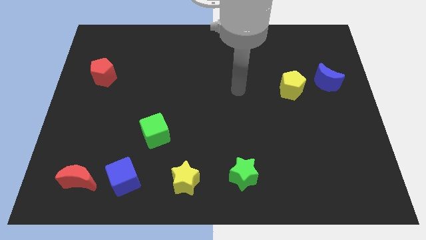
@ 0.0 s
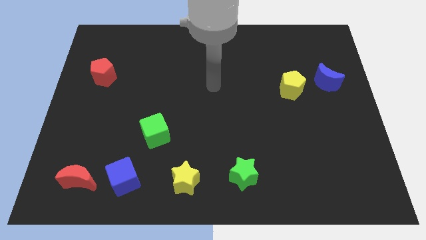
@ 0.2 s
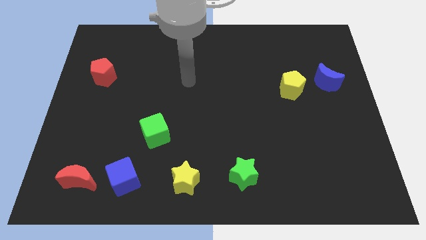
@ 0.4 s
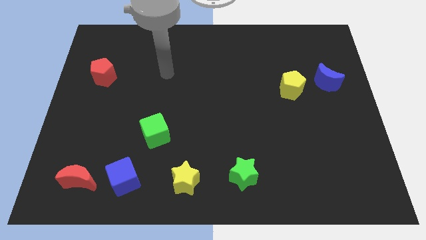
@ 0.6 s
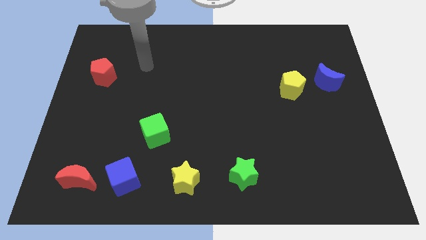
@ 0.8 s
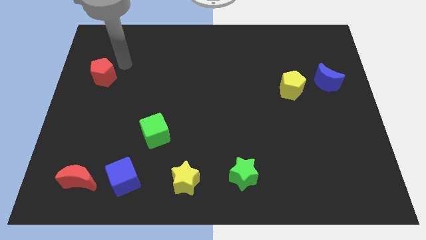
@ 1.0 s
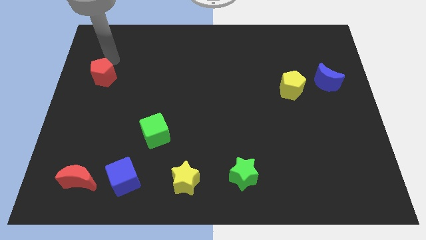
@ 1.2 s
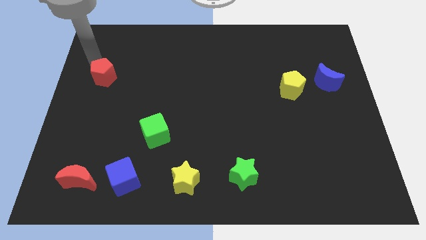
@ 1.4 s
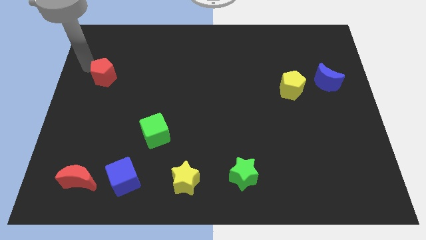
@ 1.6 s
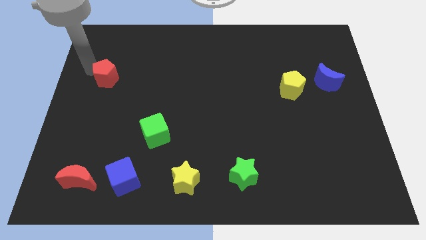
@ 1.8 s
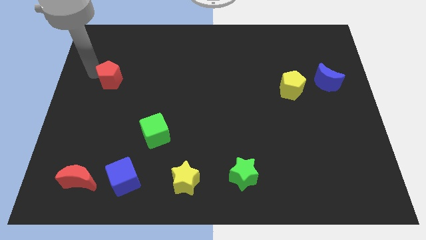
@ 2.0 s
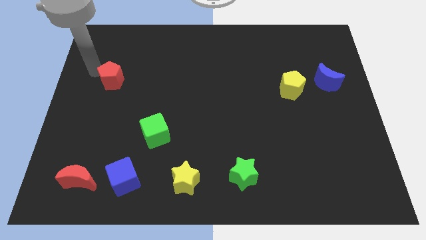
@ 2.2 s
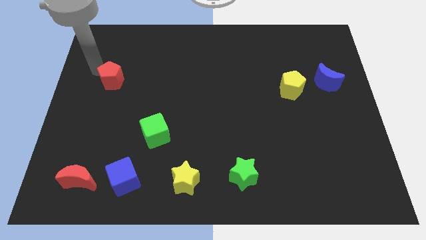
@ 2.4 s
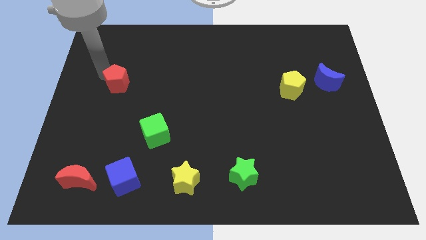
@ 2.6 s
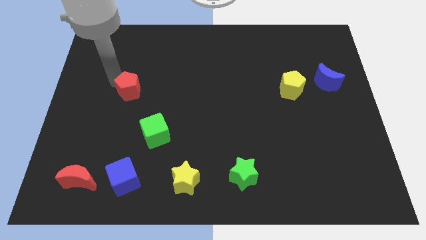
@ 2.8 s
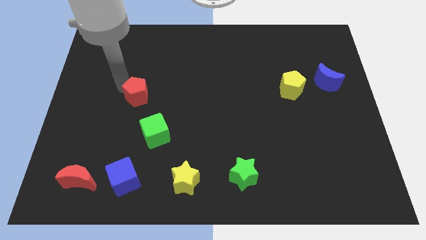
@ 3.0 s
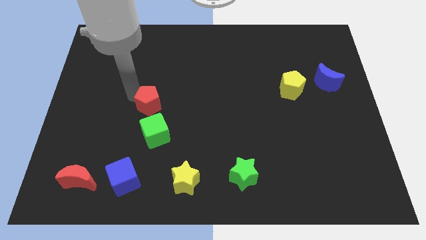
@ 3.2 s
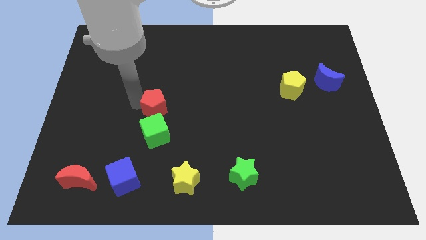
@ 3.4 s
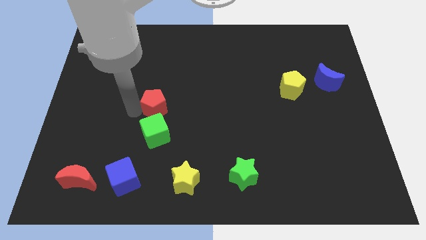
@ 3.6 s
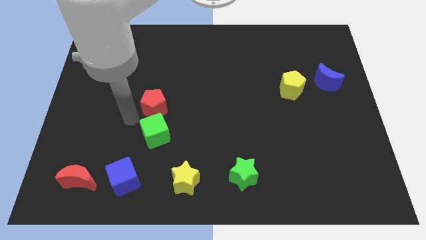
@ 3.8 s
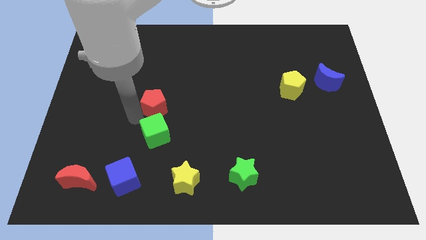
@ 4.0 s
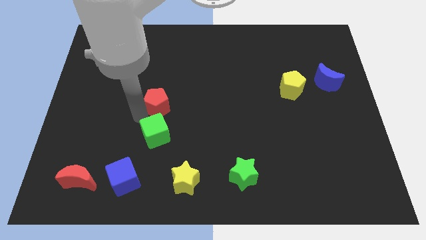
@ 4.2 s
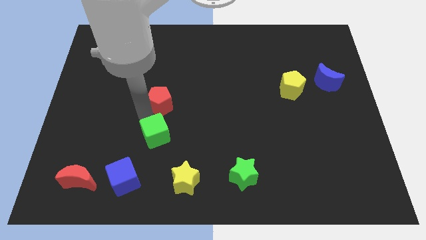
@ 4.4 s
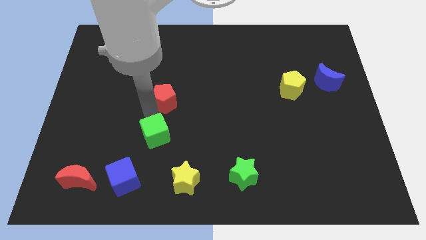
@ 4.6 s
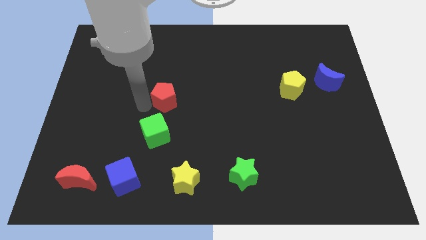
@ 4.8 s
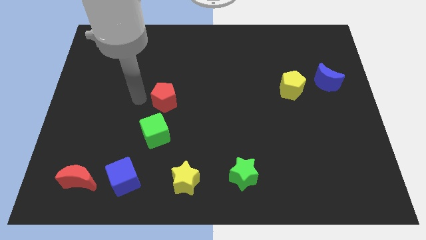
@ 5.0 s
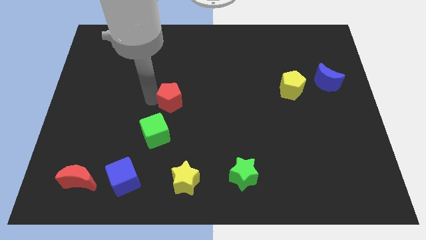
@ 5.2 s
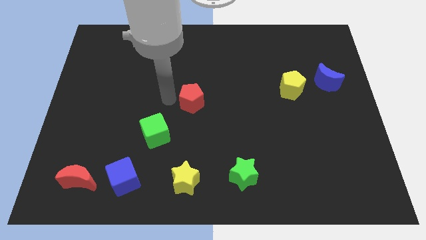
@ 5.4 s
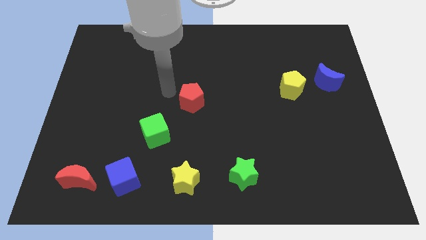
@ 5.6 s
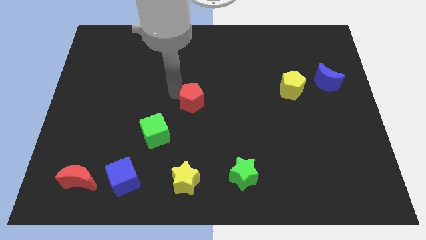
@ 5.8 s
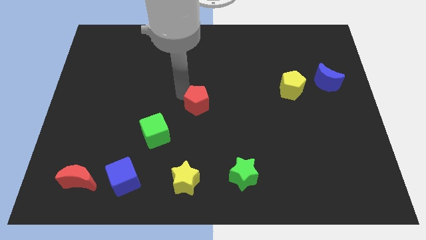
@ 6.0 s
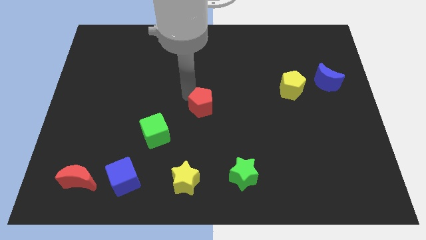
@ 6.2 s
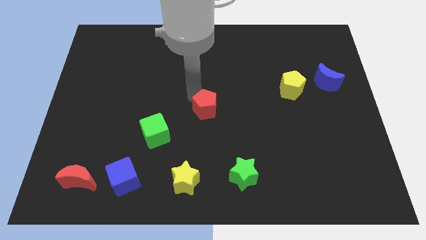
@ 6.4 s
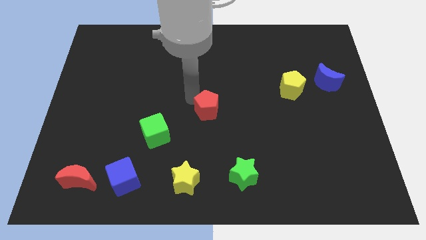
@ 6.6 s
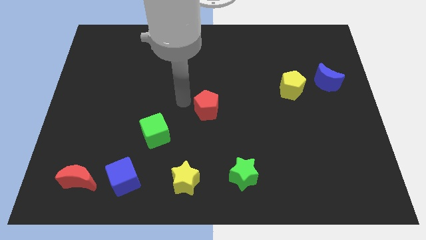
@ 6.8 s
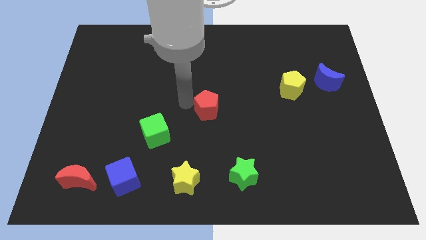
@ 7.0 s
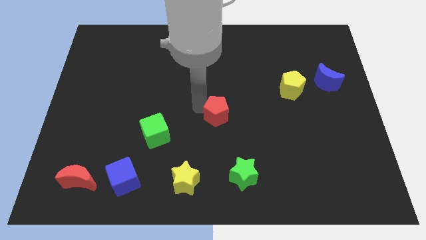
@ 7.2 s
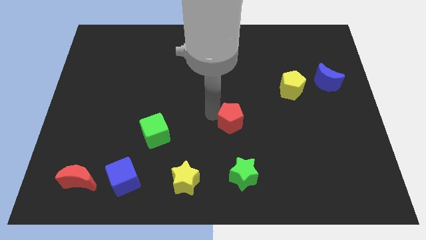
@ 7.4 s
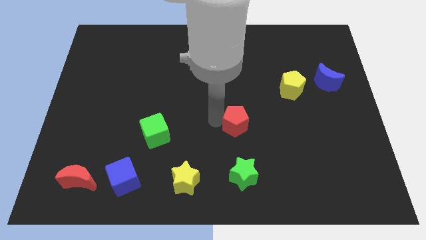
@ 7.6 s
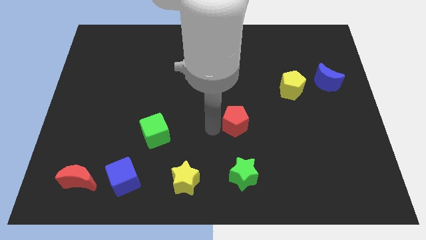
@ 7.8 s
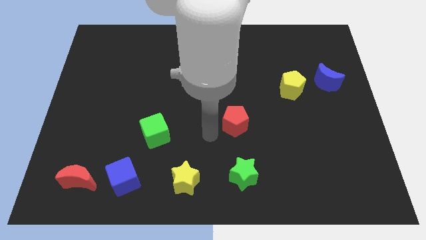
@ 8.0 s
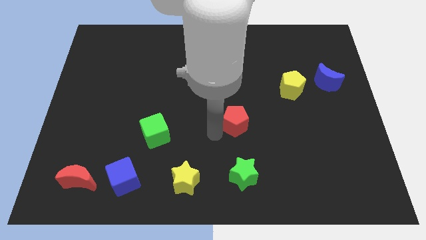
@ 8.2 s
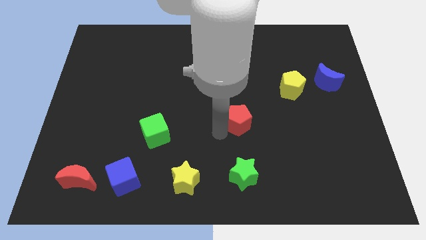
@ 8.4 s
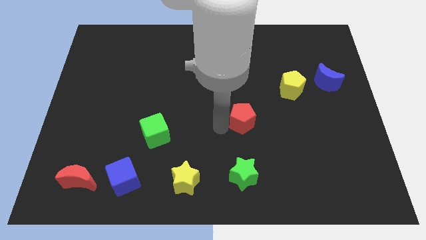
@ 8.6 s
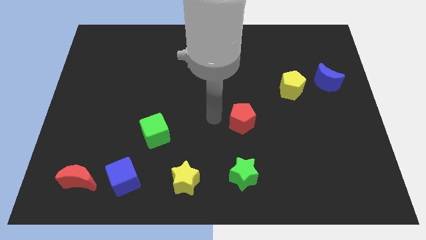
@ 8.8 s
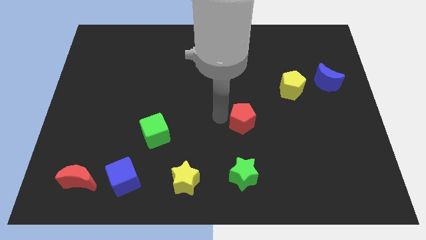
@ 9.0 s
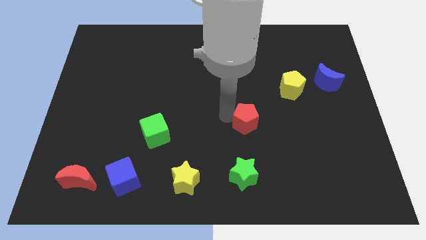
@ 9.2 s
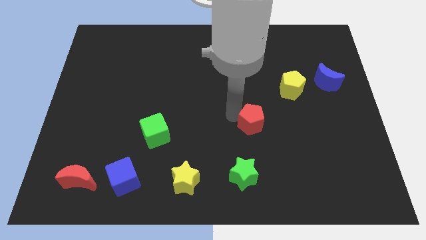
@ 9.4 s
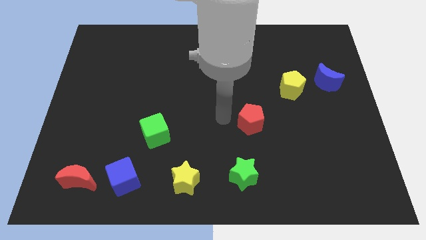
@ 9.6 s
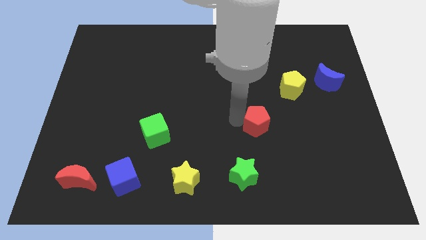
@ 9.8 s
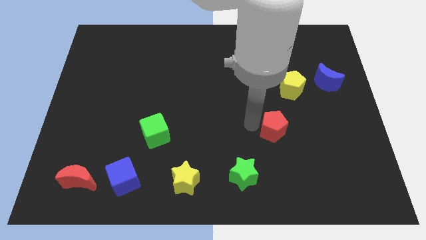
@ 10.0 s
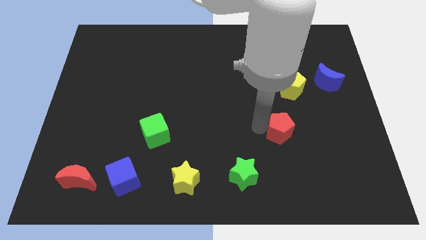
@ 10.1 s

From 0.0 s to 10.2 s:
move the red pentagon to the bottom side of the yellow pentagon

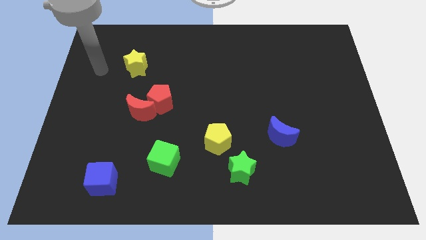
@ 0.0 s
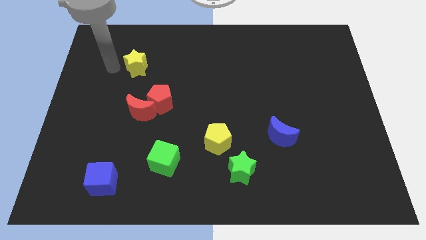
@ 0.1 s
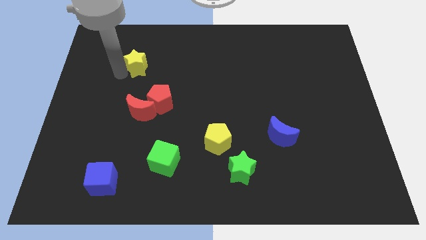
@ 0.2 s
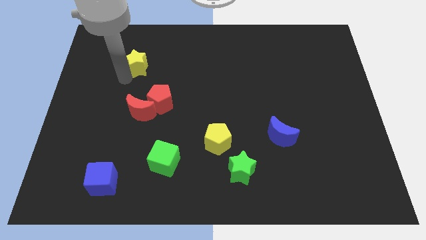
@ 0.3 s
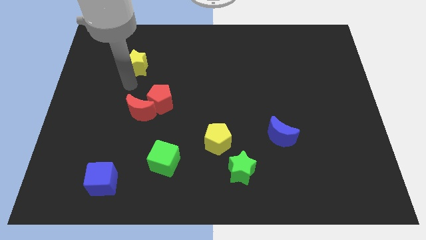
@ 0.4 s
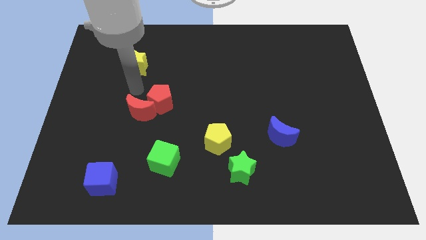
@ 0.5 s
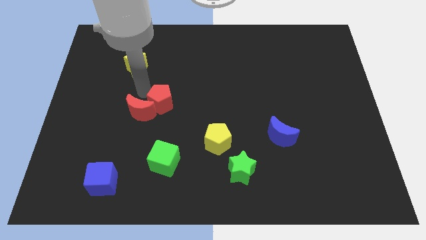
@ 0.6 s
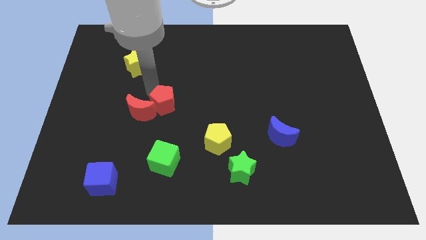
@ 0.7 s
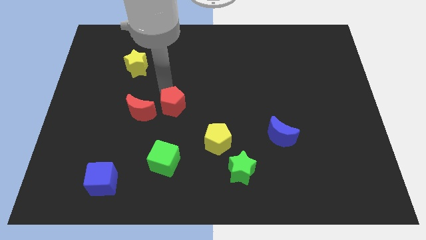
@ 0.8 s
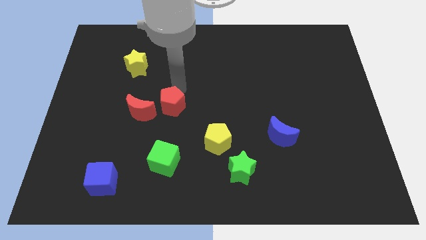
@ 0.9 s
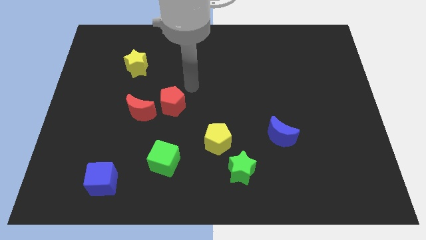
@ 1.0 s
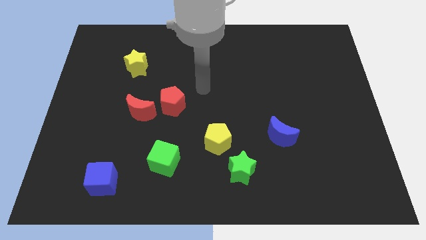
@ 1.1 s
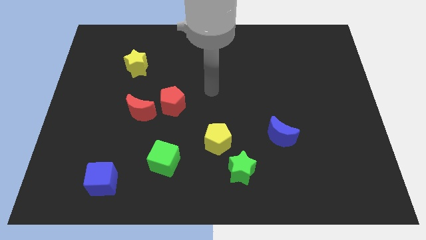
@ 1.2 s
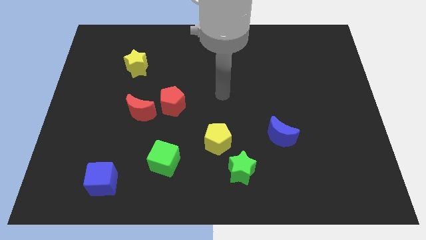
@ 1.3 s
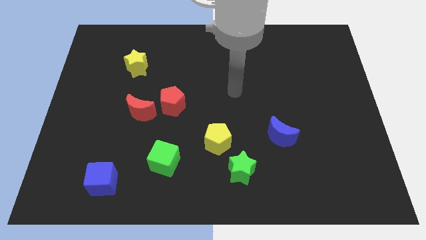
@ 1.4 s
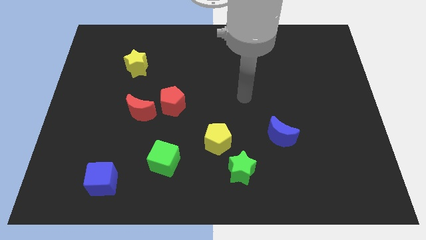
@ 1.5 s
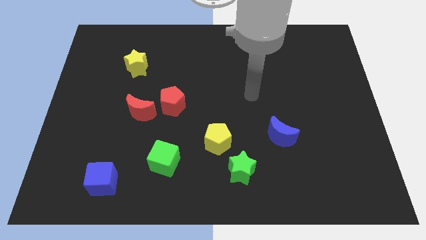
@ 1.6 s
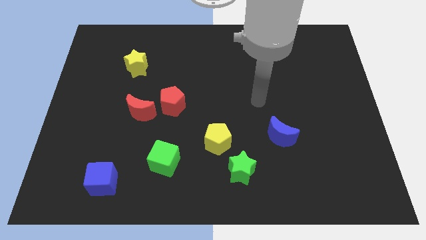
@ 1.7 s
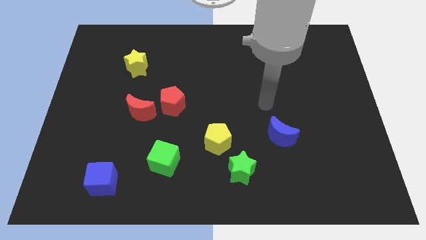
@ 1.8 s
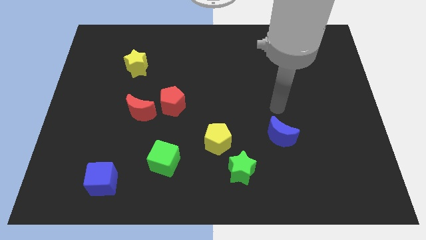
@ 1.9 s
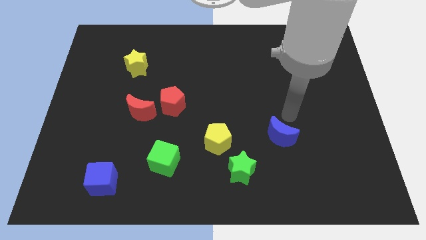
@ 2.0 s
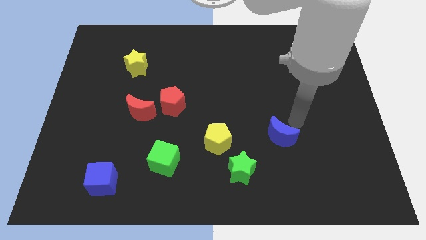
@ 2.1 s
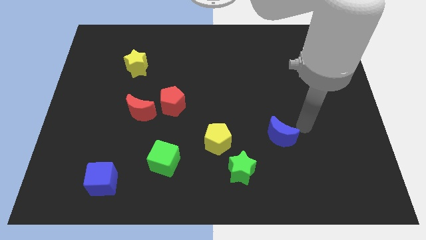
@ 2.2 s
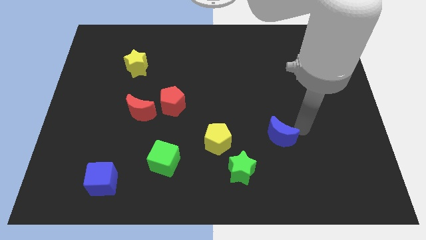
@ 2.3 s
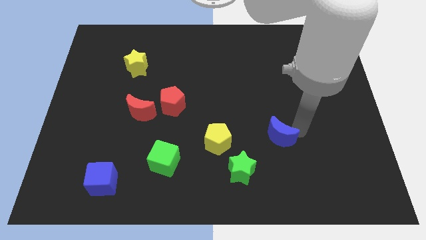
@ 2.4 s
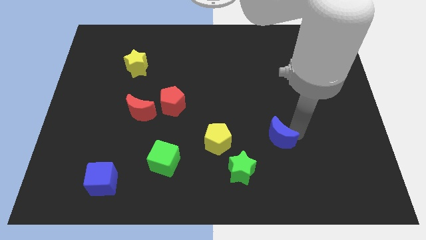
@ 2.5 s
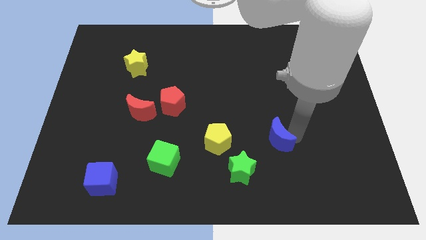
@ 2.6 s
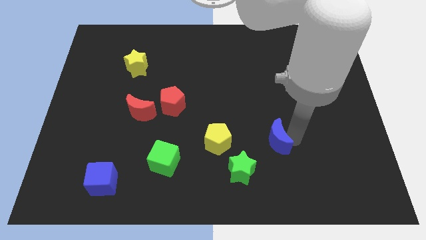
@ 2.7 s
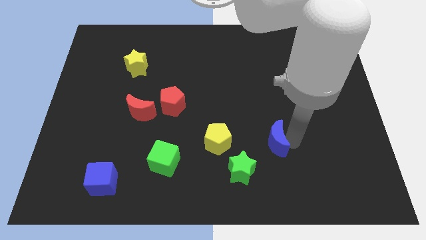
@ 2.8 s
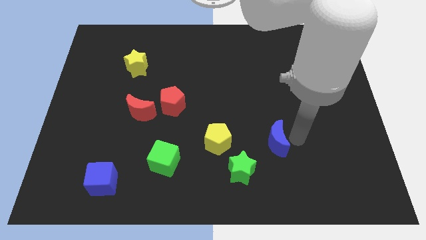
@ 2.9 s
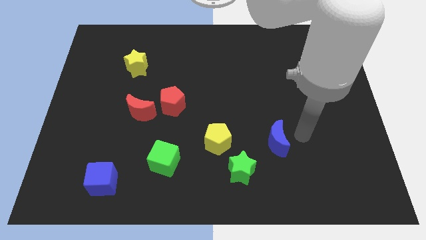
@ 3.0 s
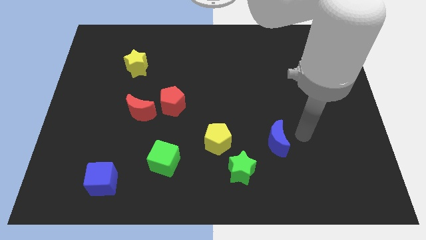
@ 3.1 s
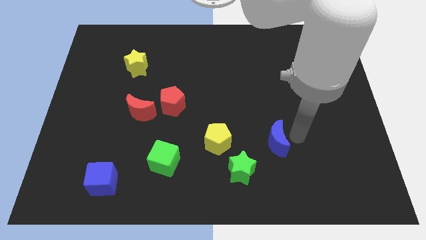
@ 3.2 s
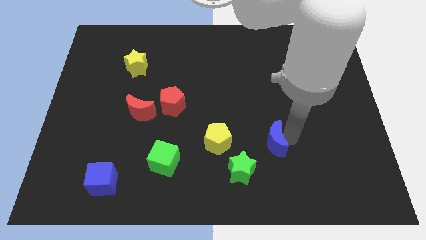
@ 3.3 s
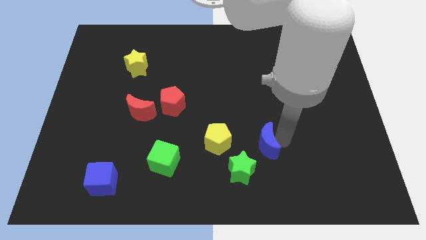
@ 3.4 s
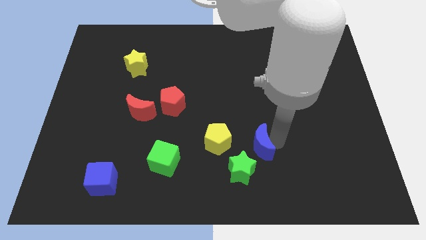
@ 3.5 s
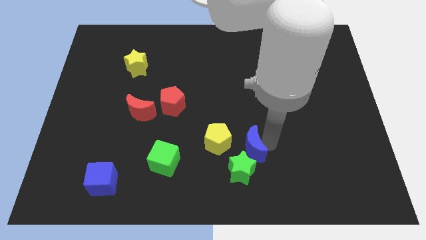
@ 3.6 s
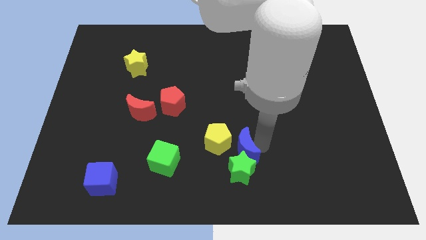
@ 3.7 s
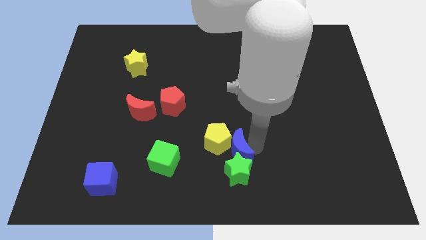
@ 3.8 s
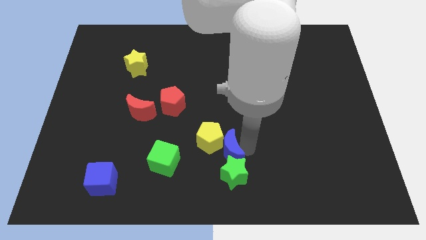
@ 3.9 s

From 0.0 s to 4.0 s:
put the blue moon to the right of the green cube
